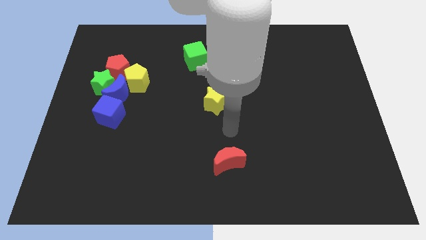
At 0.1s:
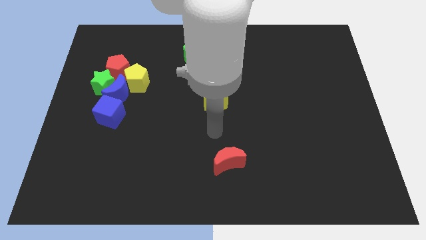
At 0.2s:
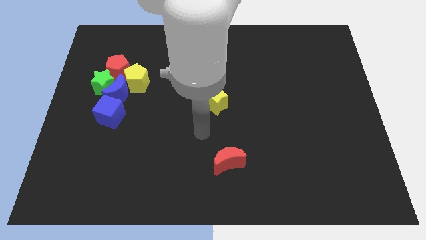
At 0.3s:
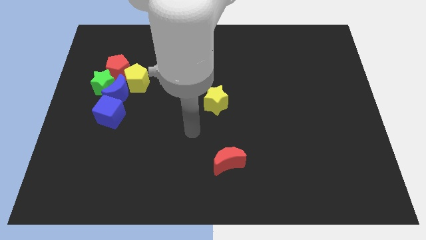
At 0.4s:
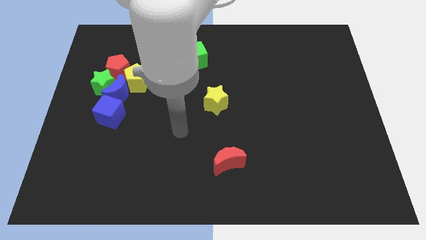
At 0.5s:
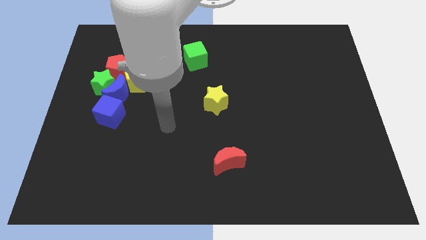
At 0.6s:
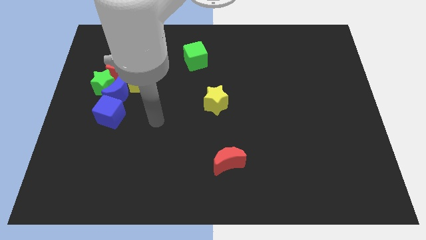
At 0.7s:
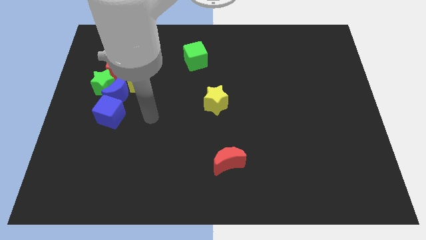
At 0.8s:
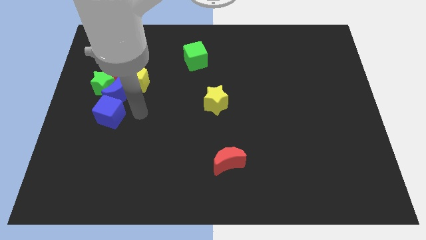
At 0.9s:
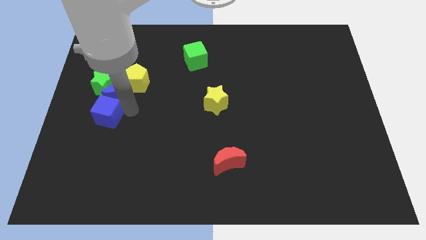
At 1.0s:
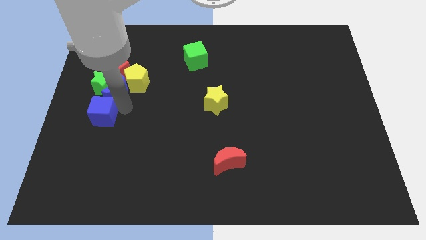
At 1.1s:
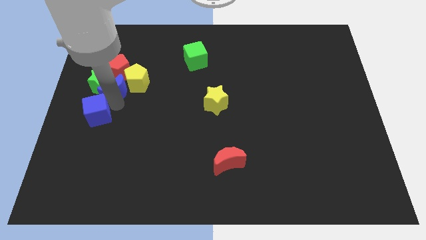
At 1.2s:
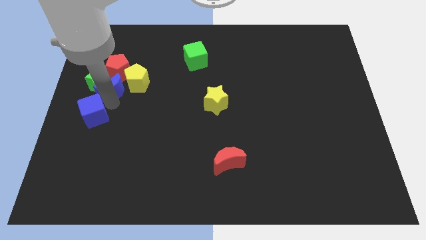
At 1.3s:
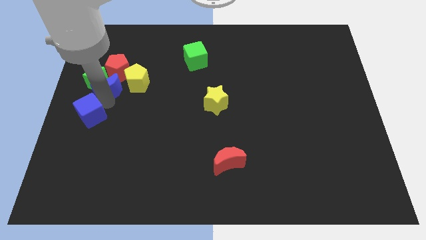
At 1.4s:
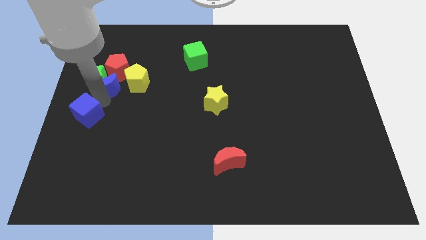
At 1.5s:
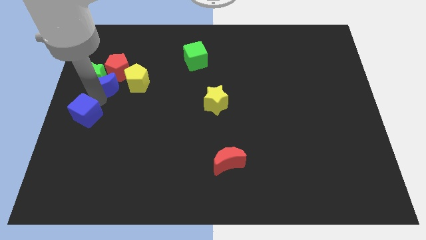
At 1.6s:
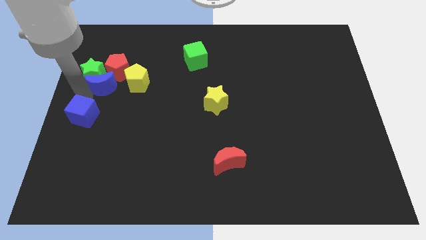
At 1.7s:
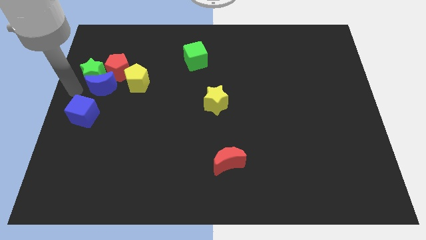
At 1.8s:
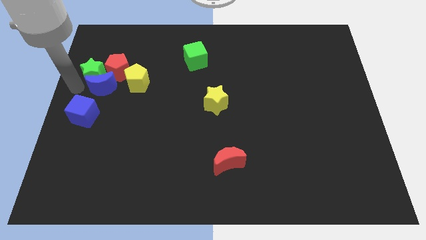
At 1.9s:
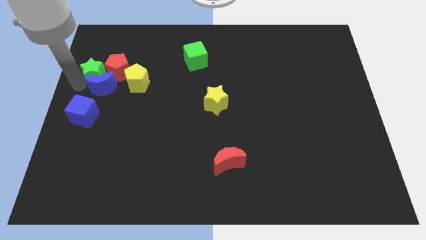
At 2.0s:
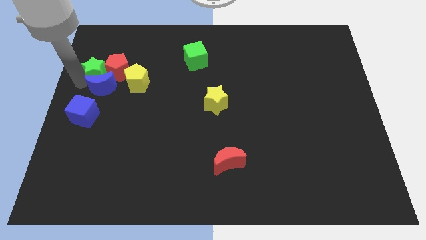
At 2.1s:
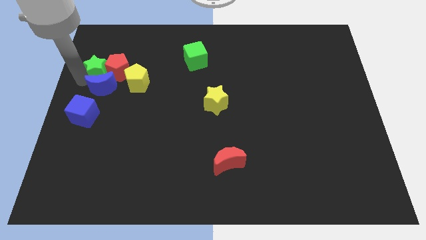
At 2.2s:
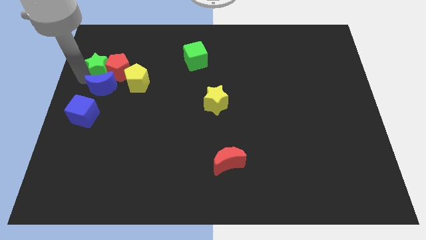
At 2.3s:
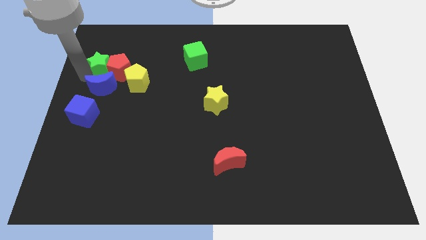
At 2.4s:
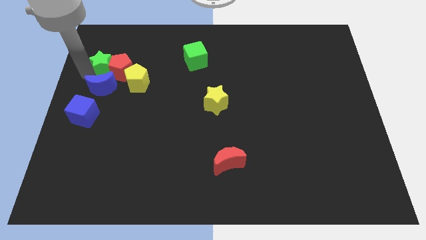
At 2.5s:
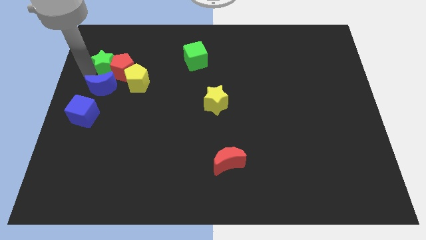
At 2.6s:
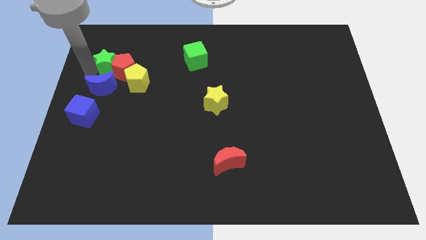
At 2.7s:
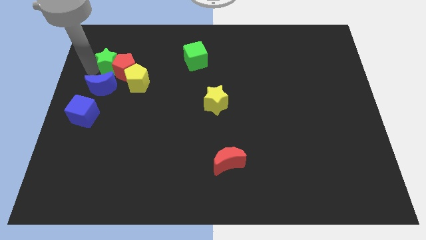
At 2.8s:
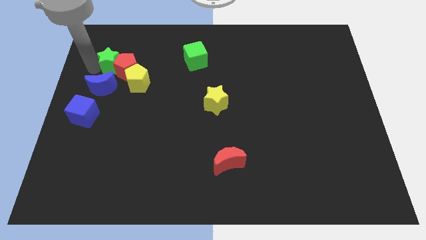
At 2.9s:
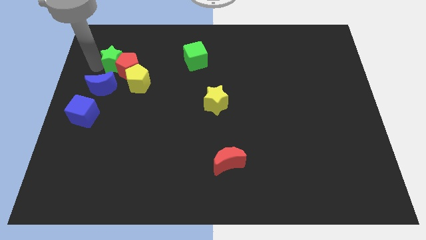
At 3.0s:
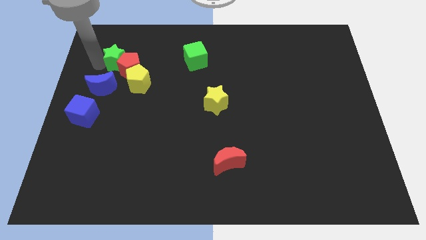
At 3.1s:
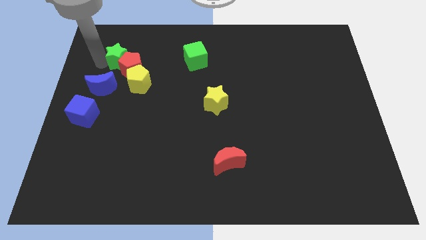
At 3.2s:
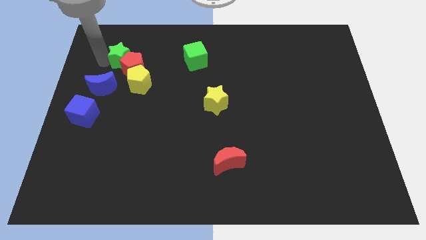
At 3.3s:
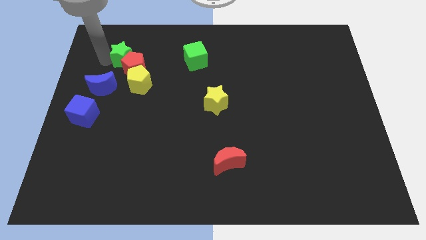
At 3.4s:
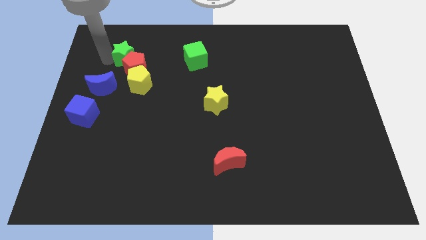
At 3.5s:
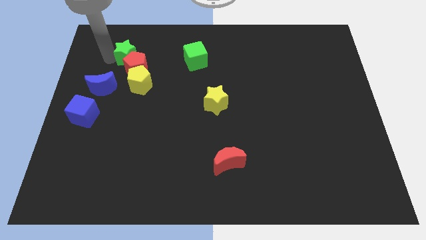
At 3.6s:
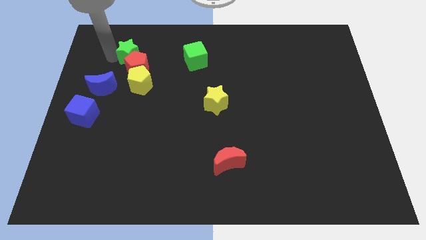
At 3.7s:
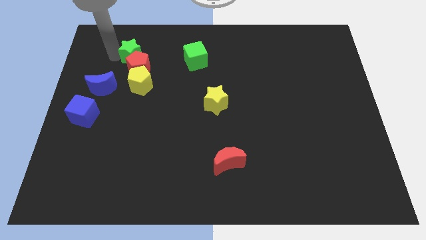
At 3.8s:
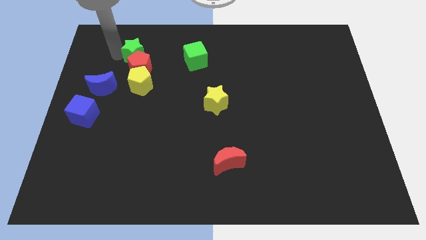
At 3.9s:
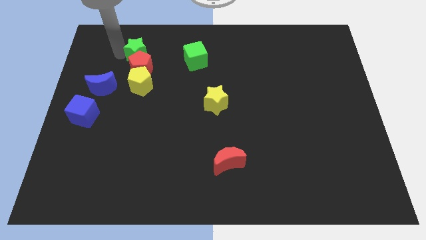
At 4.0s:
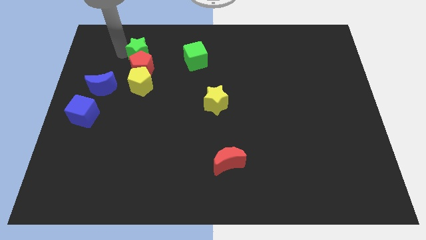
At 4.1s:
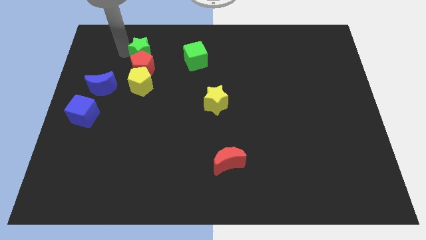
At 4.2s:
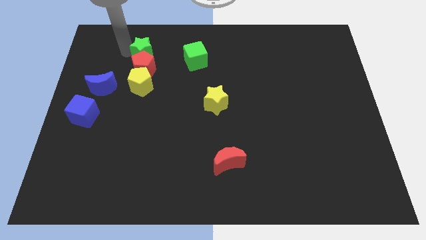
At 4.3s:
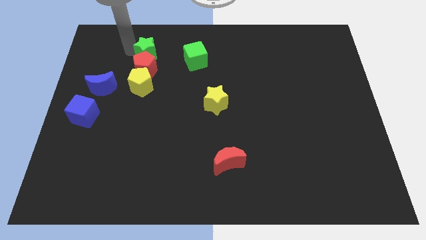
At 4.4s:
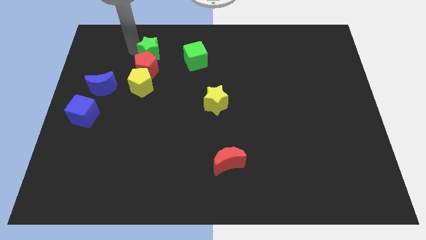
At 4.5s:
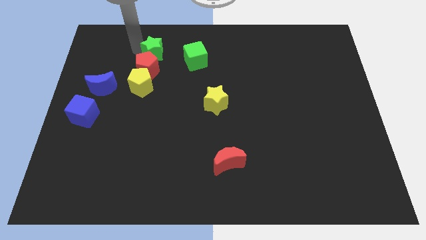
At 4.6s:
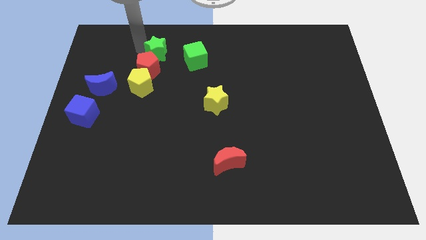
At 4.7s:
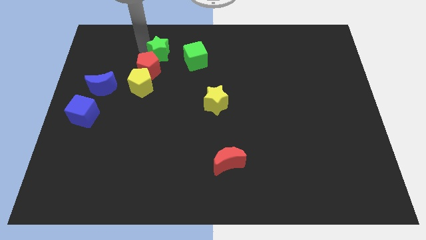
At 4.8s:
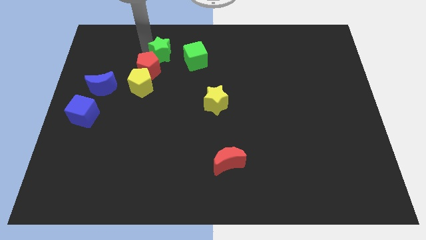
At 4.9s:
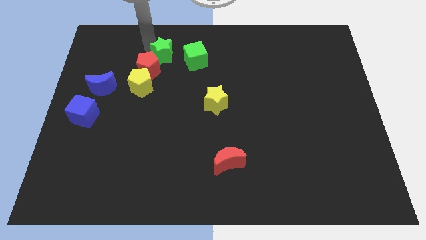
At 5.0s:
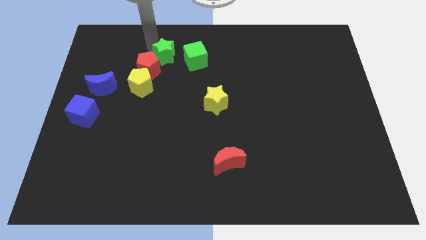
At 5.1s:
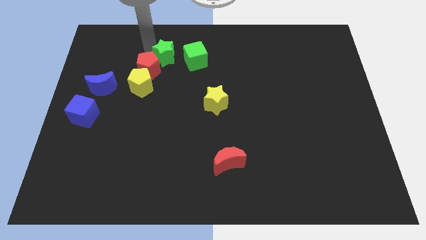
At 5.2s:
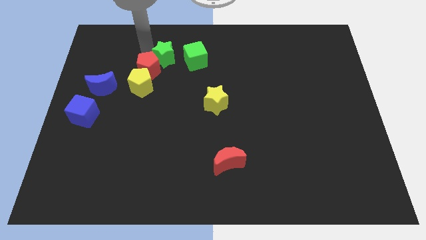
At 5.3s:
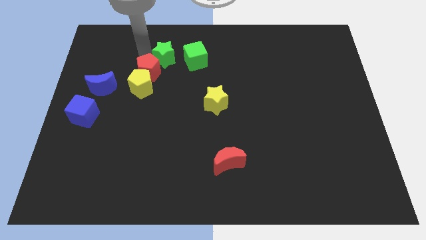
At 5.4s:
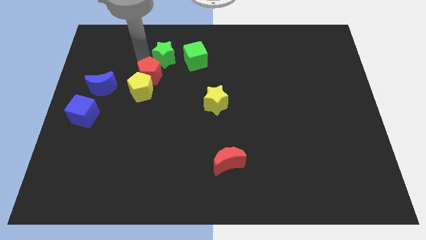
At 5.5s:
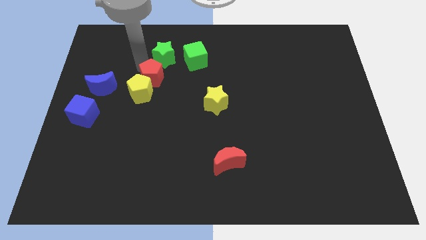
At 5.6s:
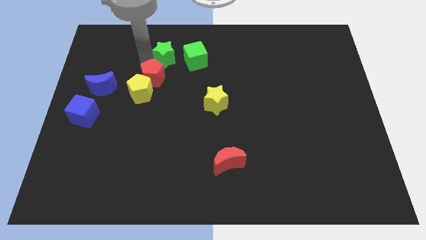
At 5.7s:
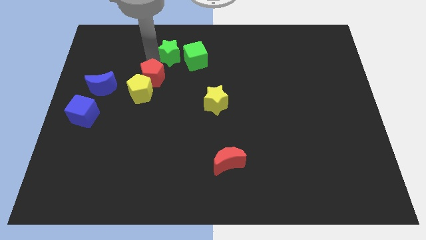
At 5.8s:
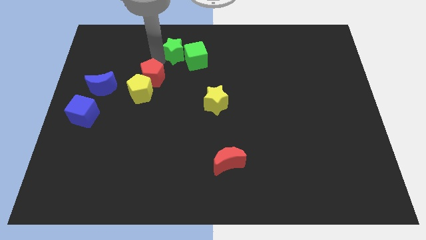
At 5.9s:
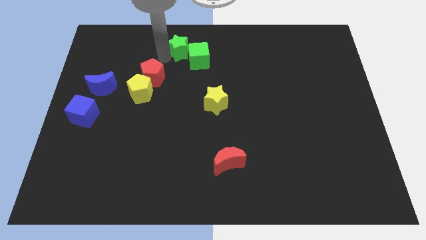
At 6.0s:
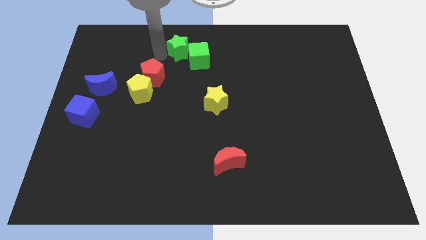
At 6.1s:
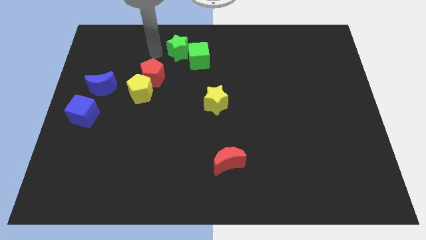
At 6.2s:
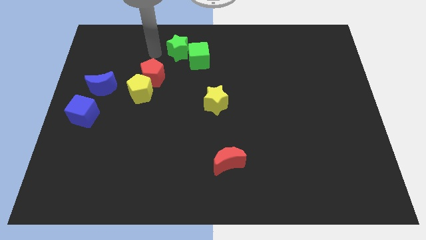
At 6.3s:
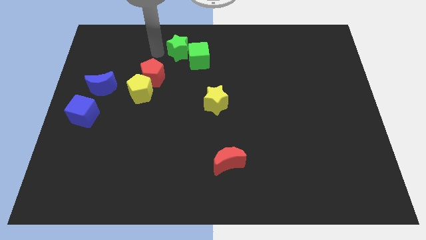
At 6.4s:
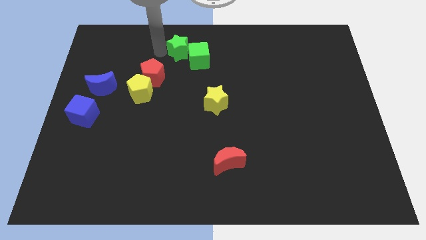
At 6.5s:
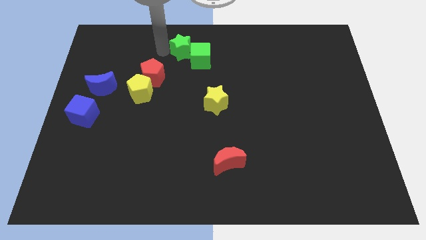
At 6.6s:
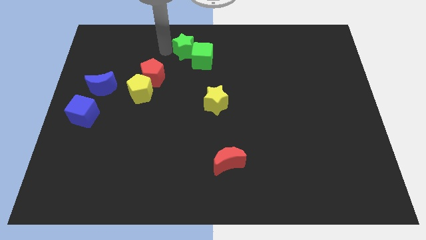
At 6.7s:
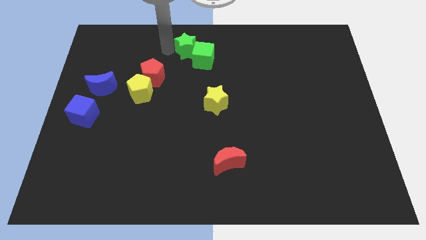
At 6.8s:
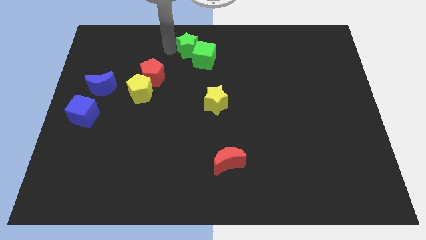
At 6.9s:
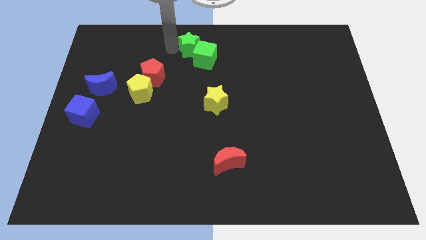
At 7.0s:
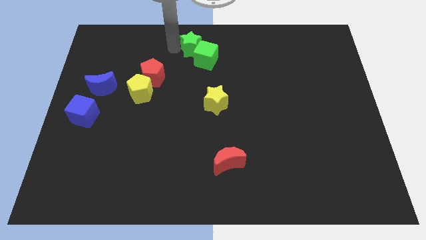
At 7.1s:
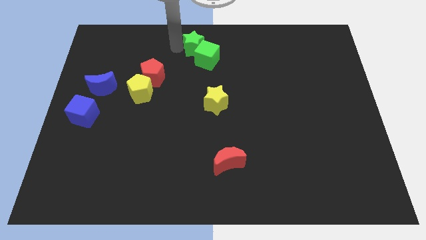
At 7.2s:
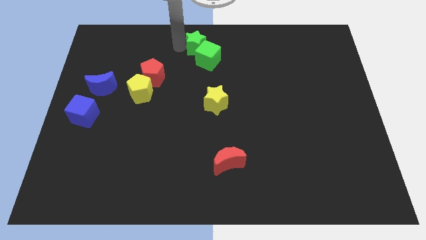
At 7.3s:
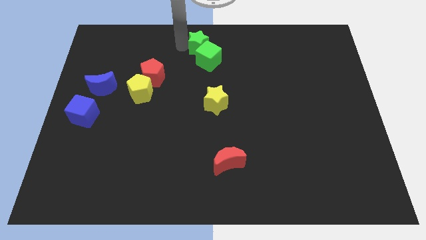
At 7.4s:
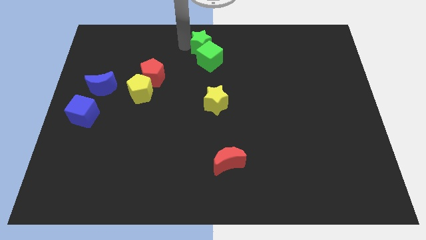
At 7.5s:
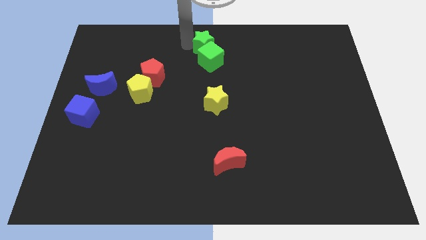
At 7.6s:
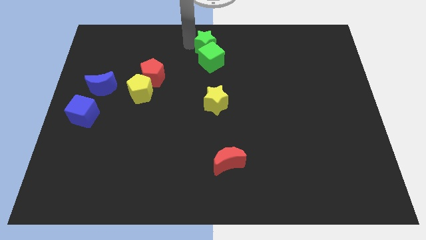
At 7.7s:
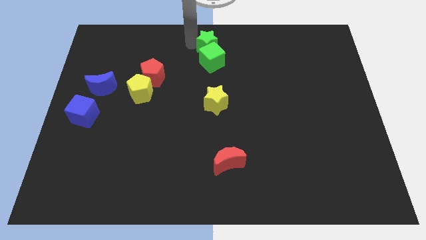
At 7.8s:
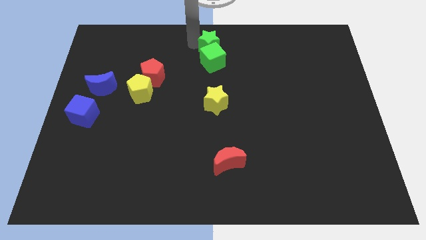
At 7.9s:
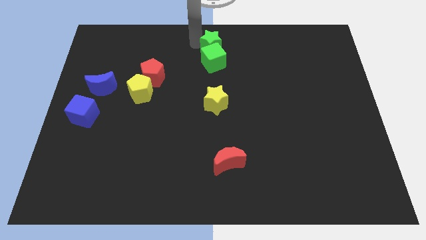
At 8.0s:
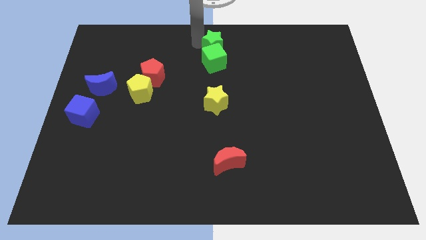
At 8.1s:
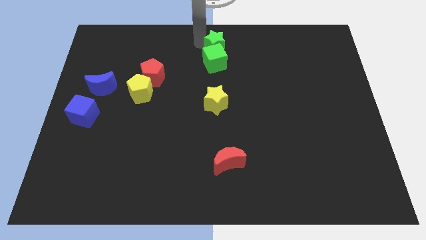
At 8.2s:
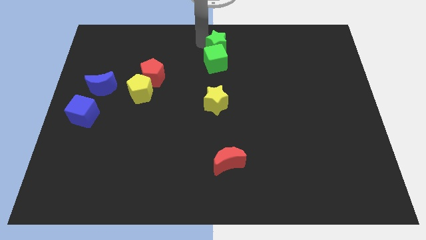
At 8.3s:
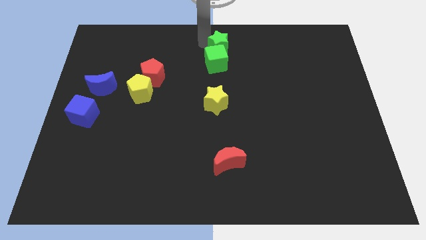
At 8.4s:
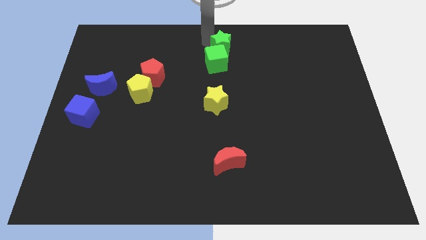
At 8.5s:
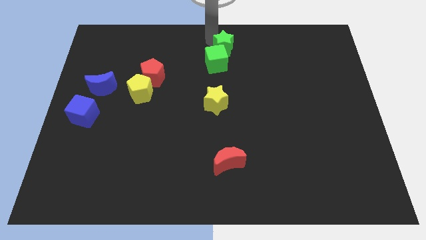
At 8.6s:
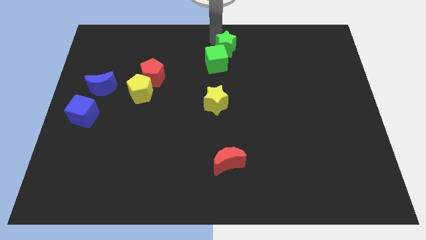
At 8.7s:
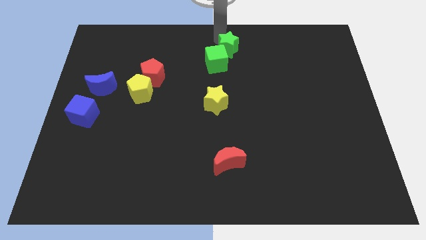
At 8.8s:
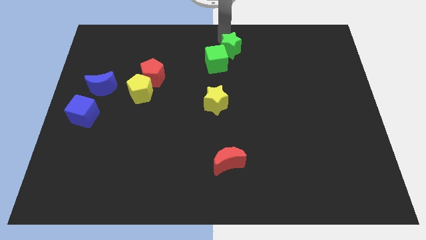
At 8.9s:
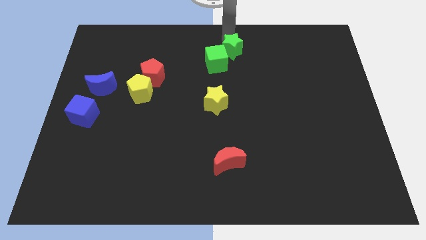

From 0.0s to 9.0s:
move the green star right of the green cube
